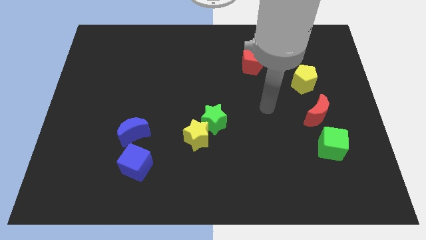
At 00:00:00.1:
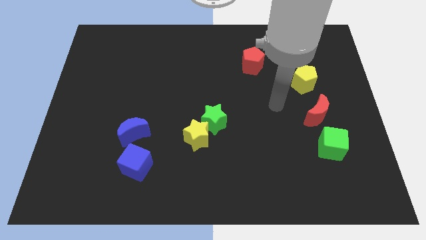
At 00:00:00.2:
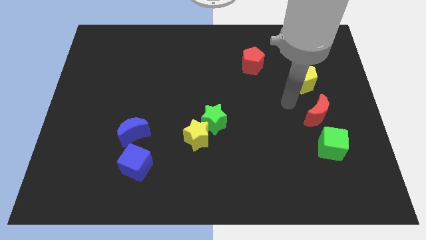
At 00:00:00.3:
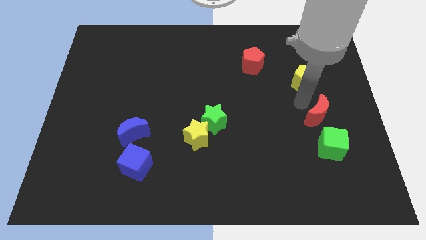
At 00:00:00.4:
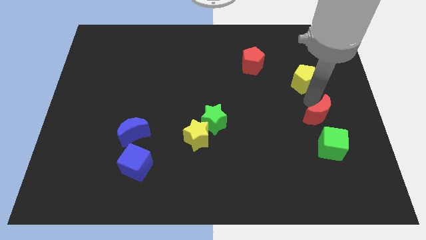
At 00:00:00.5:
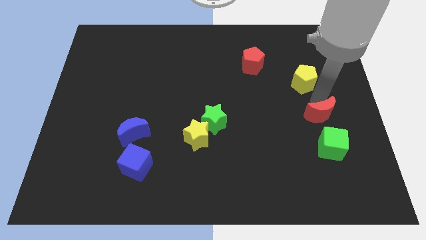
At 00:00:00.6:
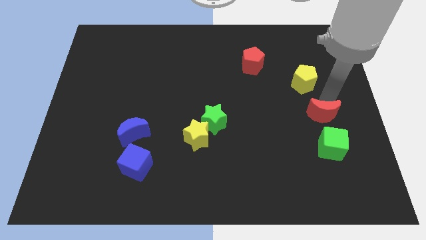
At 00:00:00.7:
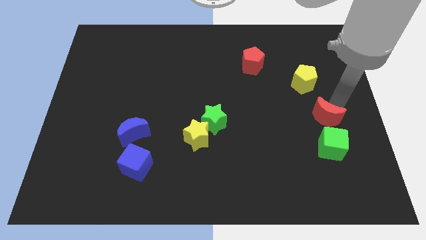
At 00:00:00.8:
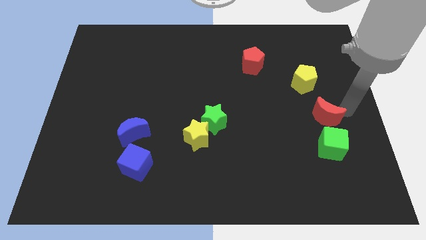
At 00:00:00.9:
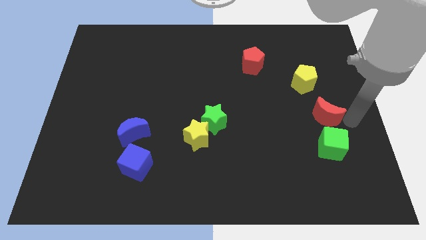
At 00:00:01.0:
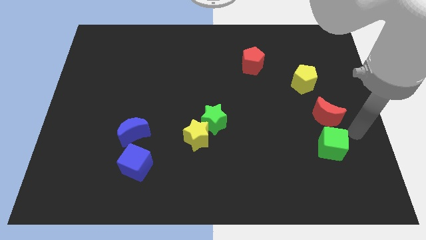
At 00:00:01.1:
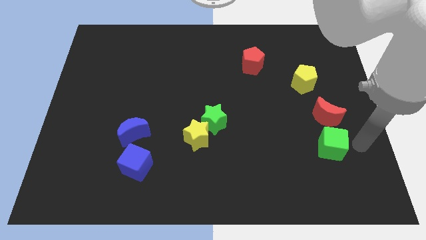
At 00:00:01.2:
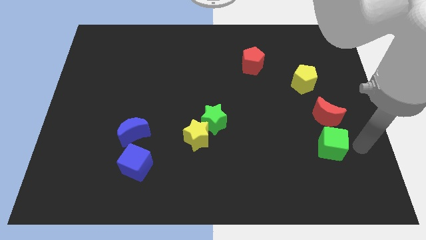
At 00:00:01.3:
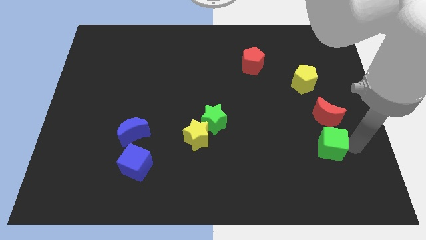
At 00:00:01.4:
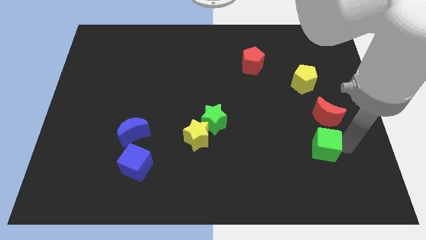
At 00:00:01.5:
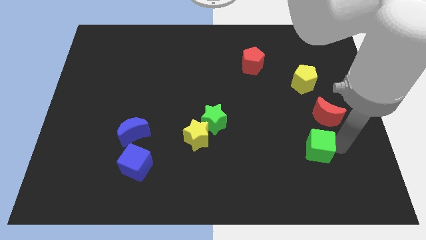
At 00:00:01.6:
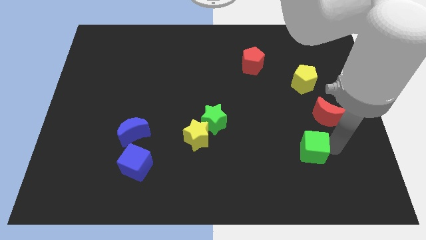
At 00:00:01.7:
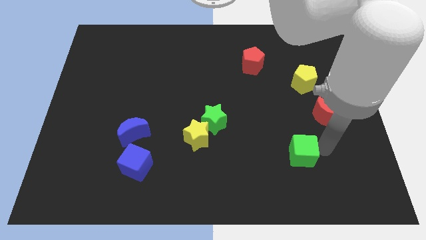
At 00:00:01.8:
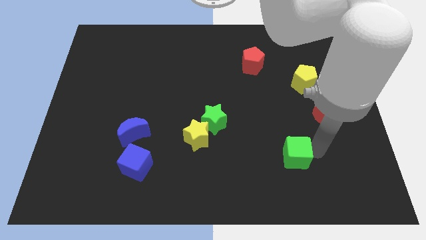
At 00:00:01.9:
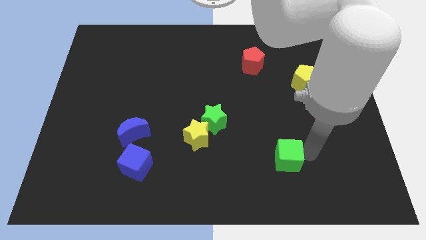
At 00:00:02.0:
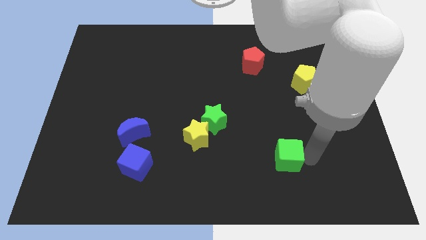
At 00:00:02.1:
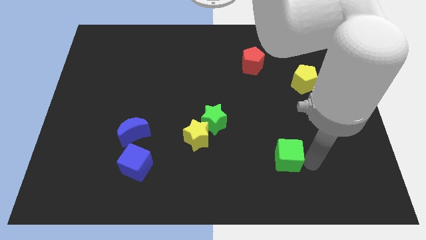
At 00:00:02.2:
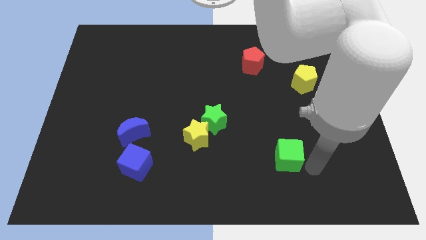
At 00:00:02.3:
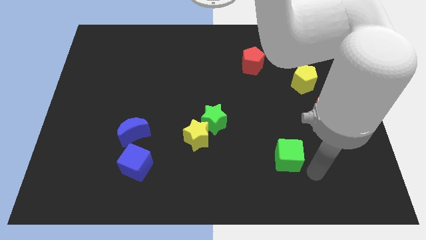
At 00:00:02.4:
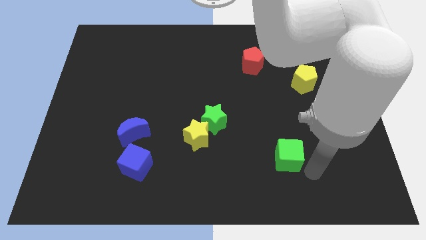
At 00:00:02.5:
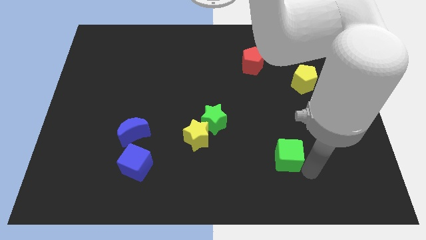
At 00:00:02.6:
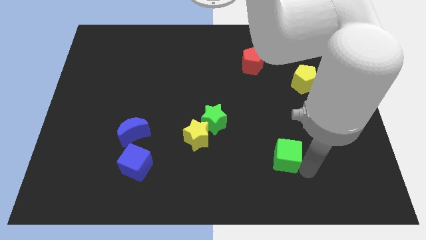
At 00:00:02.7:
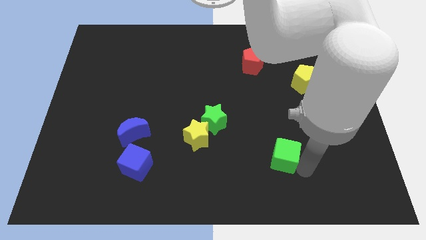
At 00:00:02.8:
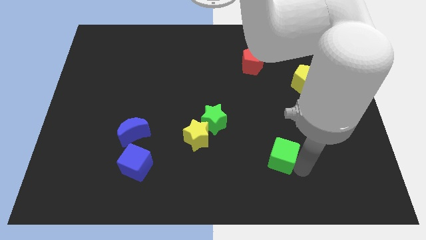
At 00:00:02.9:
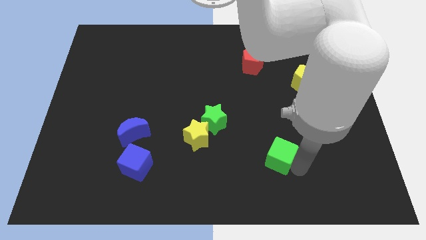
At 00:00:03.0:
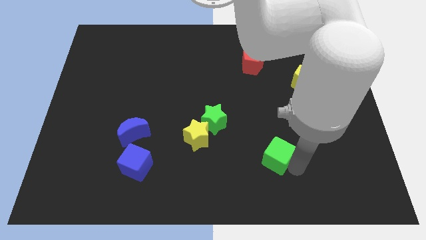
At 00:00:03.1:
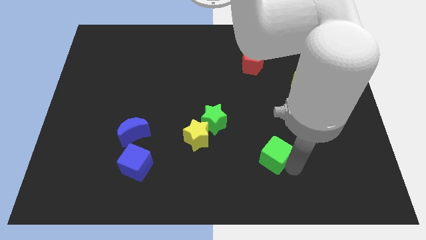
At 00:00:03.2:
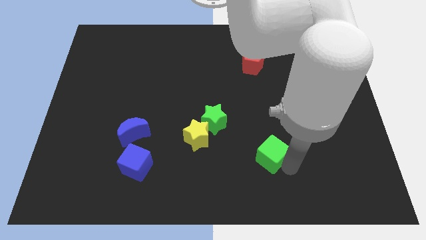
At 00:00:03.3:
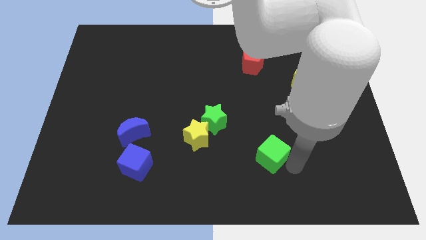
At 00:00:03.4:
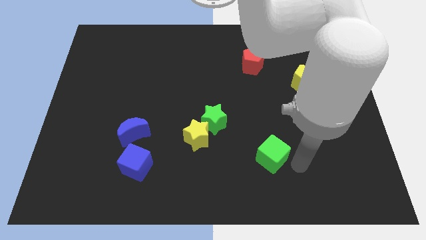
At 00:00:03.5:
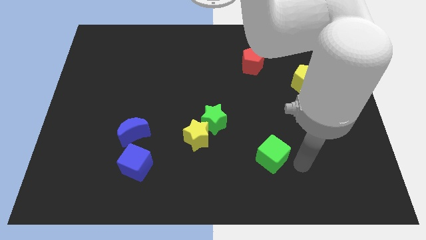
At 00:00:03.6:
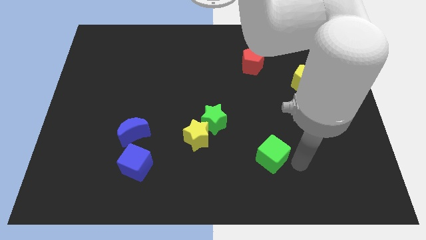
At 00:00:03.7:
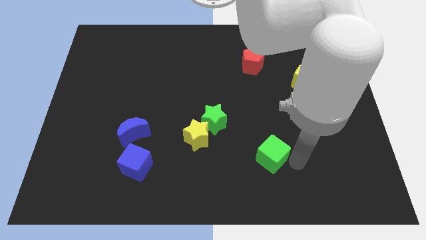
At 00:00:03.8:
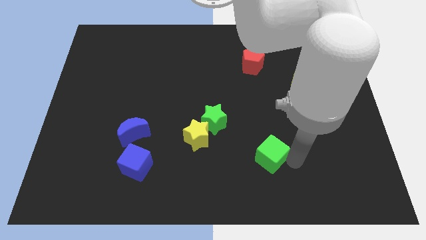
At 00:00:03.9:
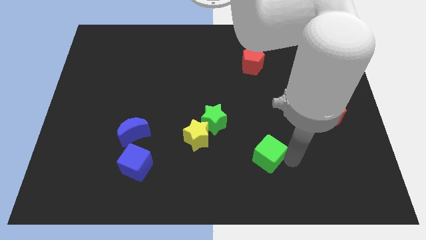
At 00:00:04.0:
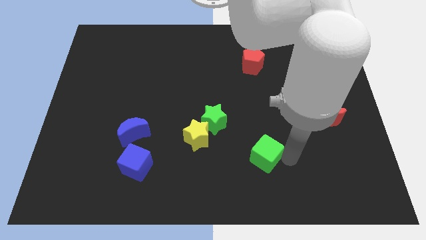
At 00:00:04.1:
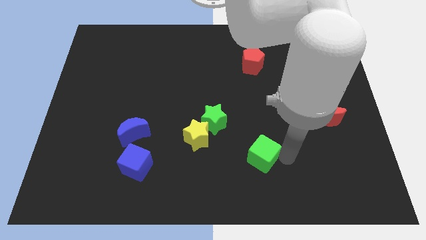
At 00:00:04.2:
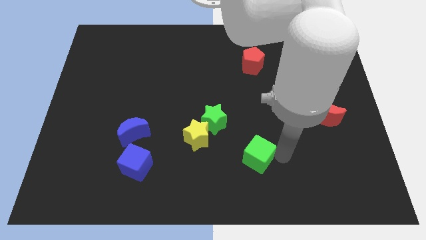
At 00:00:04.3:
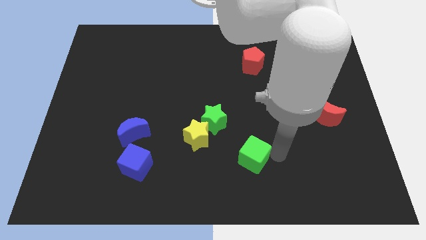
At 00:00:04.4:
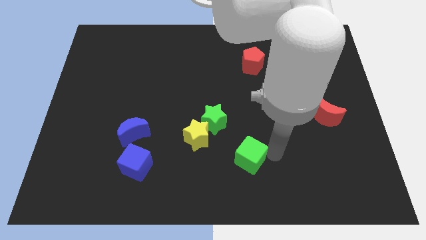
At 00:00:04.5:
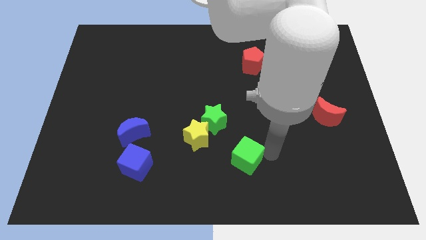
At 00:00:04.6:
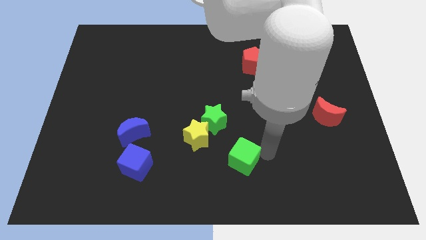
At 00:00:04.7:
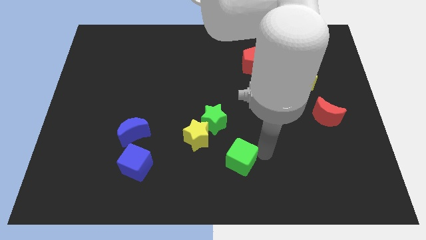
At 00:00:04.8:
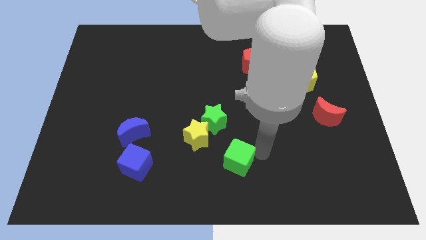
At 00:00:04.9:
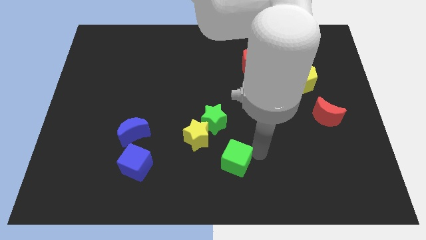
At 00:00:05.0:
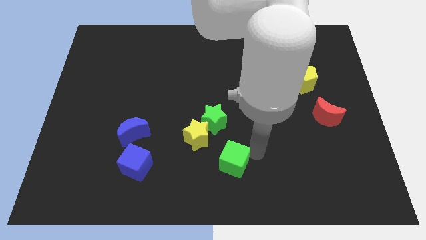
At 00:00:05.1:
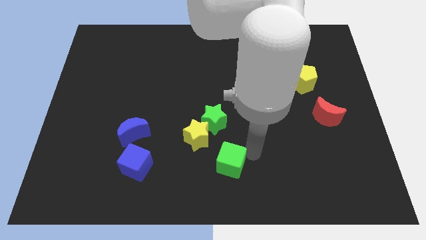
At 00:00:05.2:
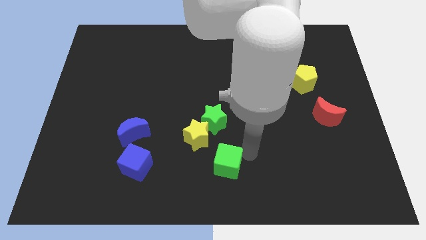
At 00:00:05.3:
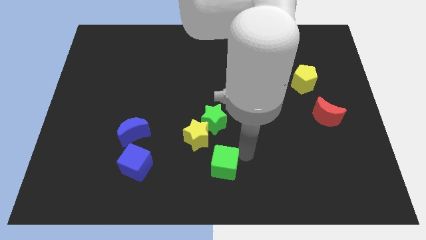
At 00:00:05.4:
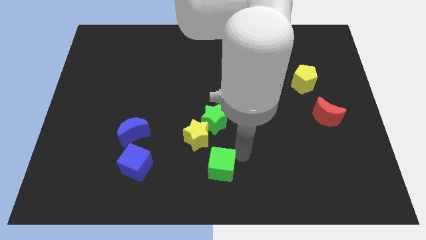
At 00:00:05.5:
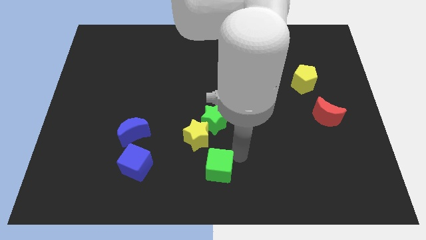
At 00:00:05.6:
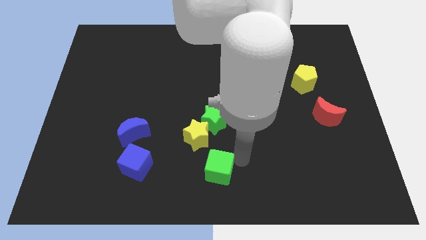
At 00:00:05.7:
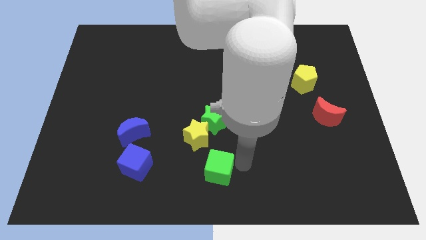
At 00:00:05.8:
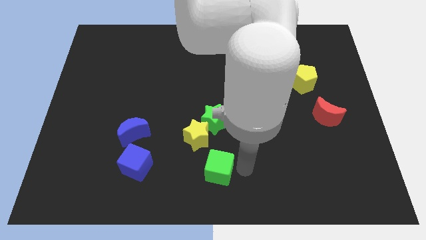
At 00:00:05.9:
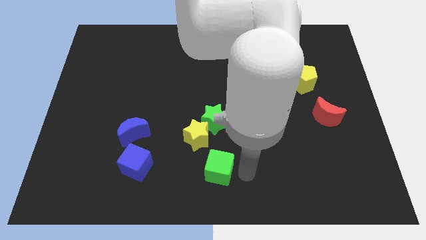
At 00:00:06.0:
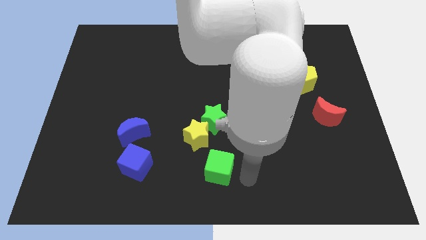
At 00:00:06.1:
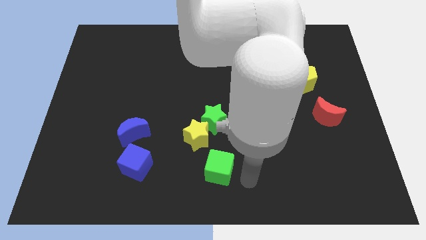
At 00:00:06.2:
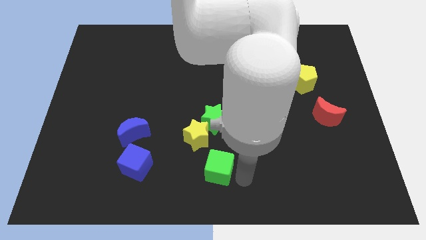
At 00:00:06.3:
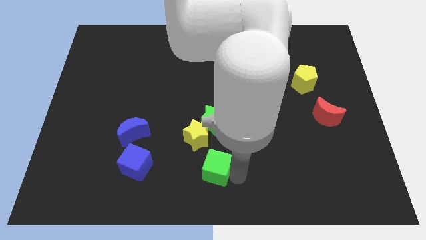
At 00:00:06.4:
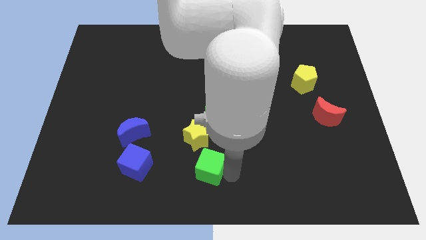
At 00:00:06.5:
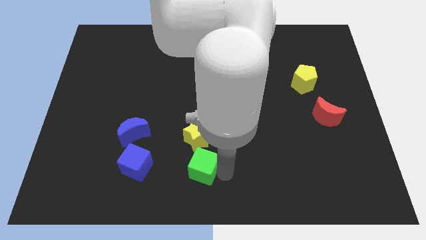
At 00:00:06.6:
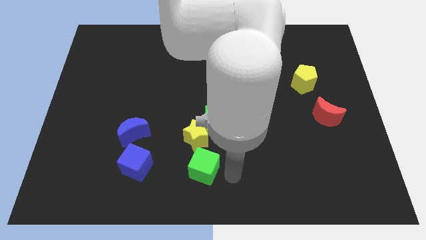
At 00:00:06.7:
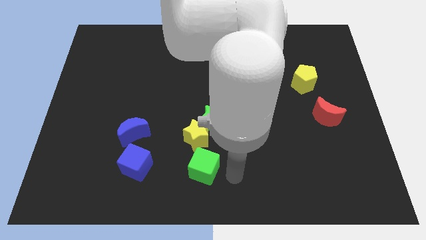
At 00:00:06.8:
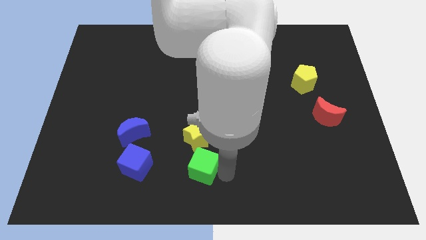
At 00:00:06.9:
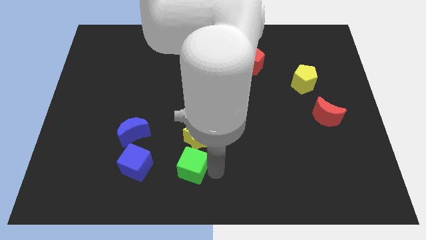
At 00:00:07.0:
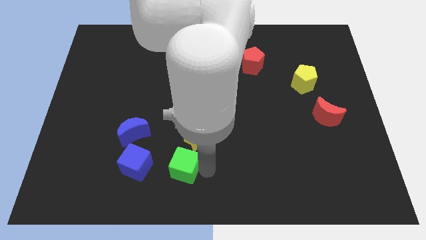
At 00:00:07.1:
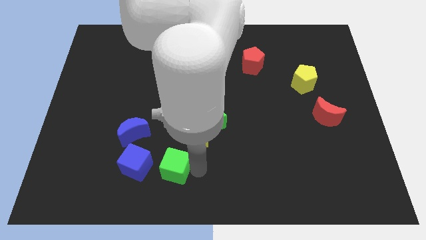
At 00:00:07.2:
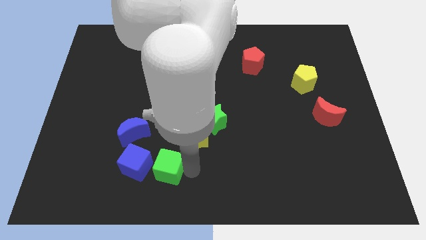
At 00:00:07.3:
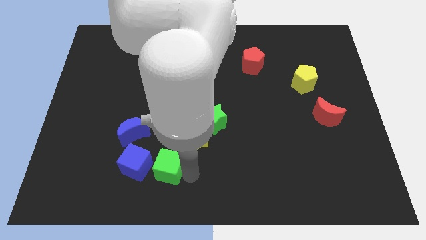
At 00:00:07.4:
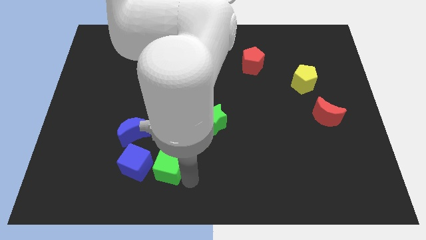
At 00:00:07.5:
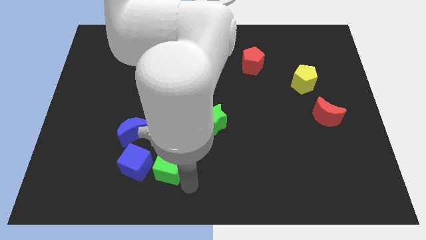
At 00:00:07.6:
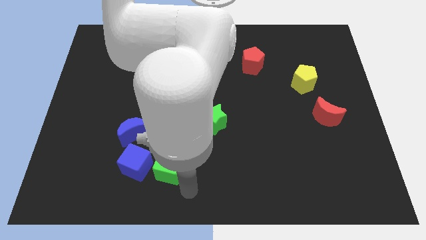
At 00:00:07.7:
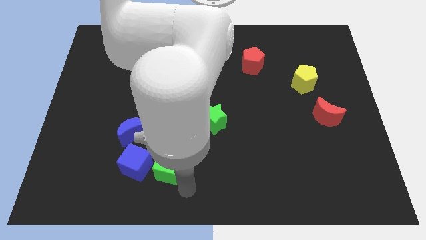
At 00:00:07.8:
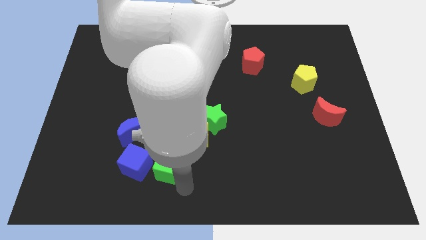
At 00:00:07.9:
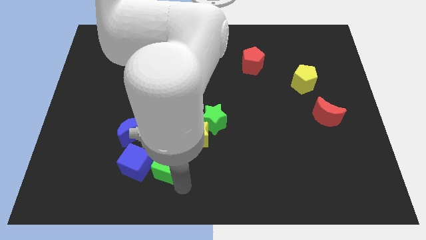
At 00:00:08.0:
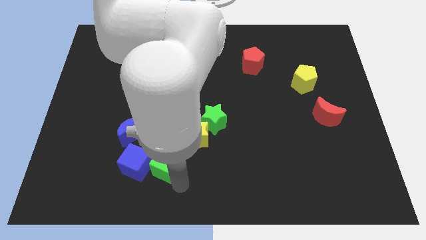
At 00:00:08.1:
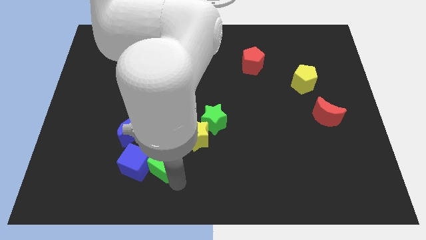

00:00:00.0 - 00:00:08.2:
slide the green cube close to the blue cube
